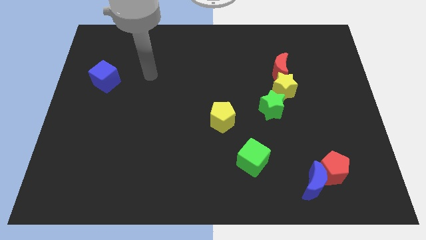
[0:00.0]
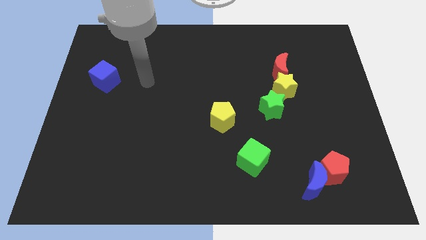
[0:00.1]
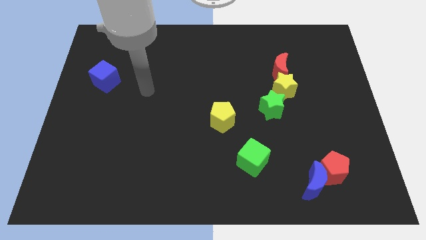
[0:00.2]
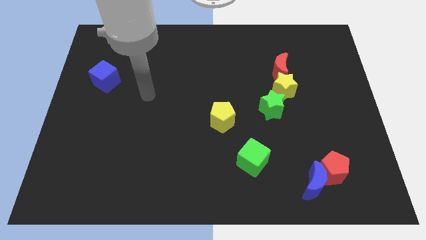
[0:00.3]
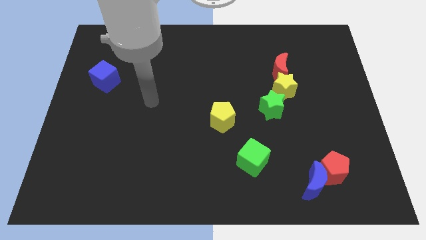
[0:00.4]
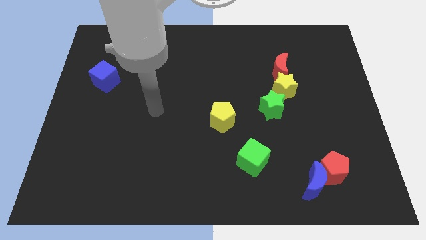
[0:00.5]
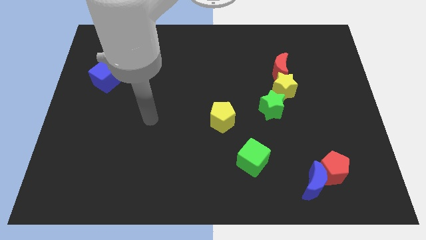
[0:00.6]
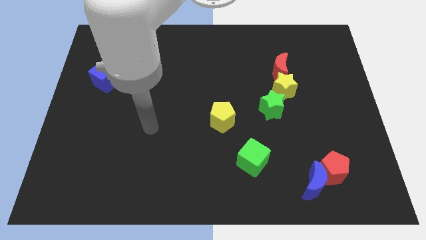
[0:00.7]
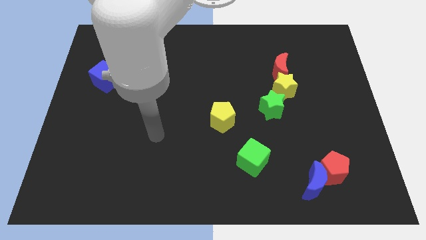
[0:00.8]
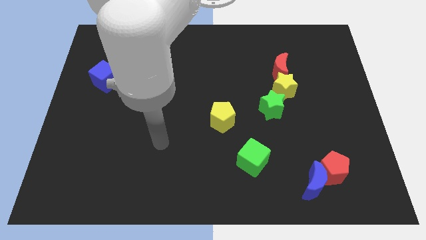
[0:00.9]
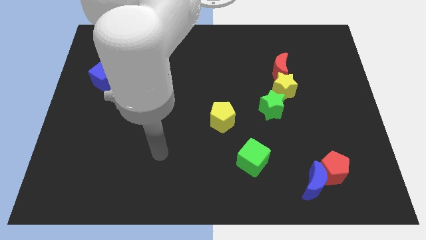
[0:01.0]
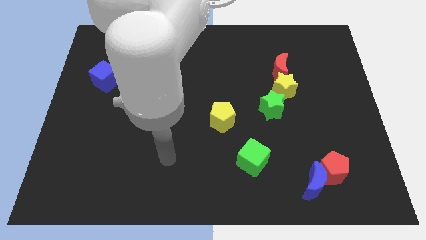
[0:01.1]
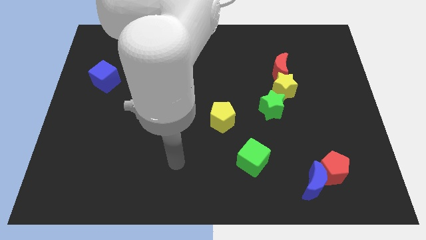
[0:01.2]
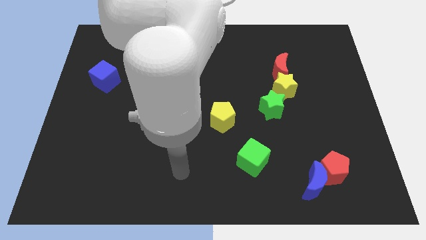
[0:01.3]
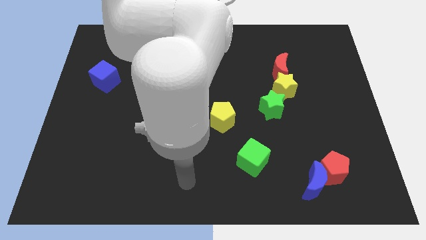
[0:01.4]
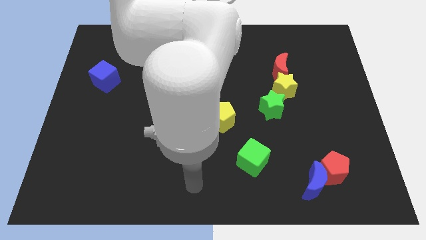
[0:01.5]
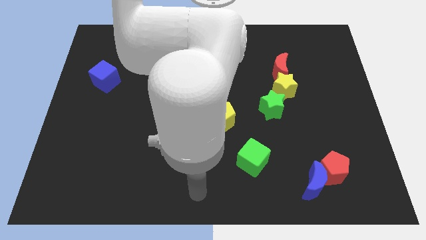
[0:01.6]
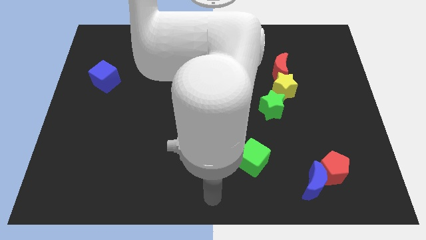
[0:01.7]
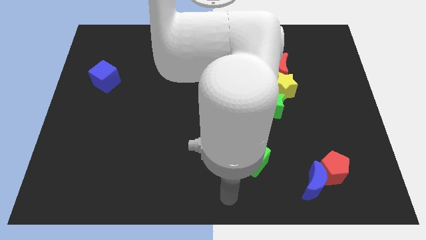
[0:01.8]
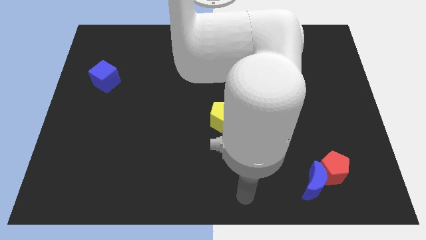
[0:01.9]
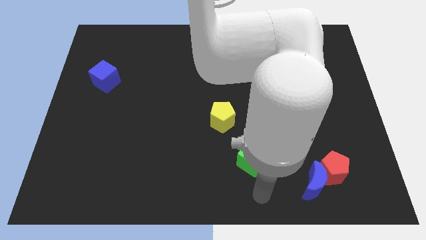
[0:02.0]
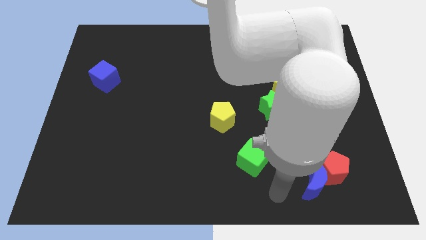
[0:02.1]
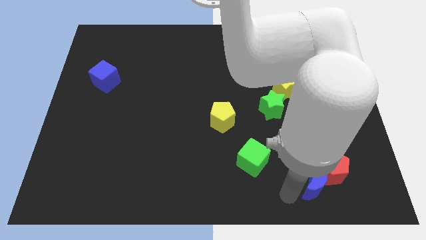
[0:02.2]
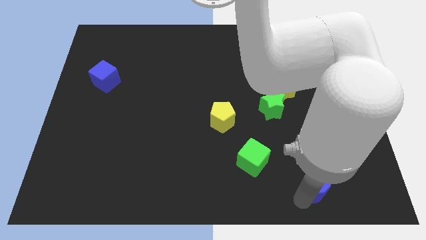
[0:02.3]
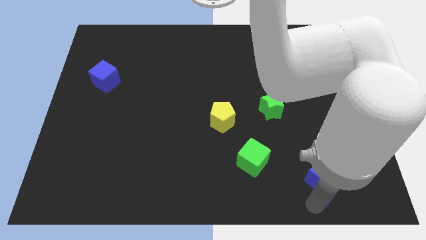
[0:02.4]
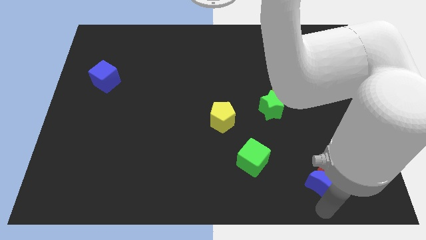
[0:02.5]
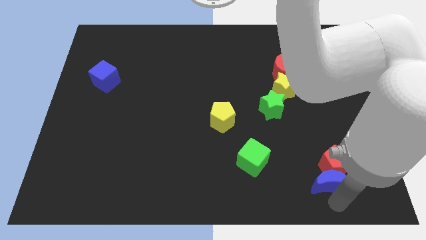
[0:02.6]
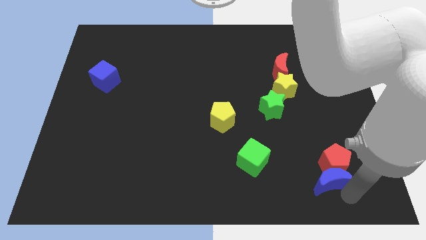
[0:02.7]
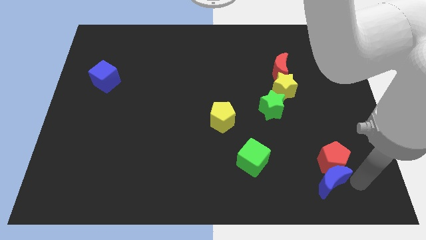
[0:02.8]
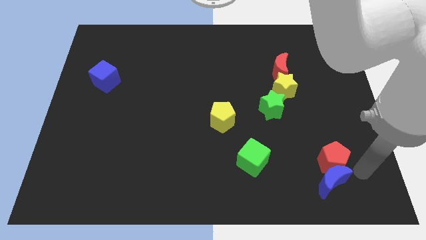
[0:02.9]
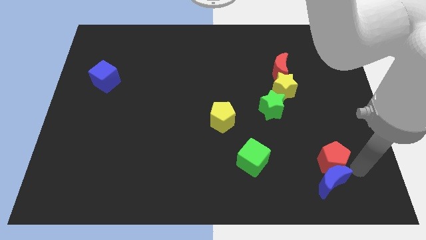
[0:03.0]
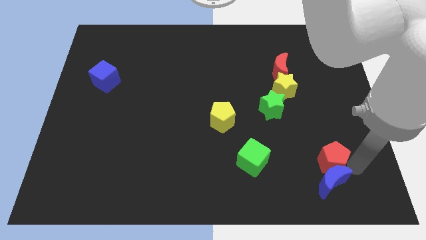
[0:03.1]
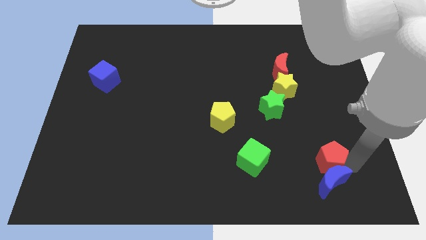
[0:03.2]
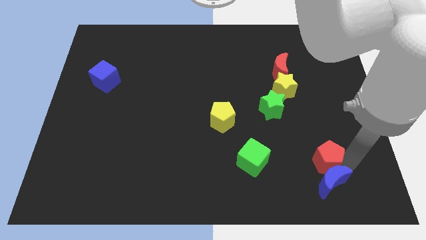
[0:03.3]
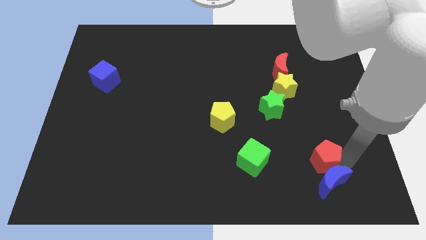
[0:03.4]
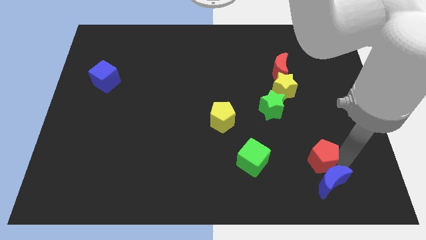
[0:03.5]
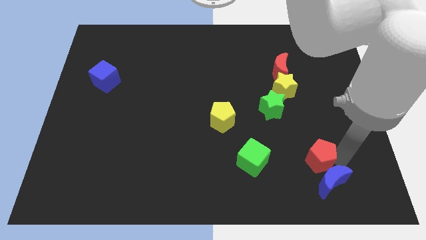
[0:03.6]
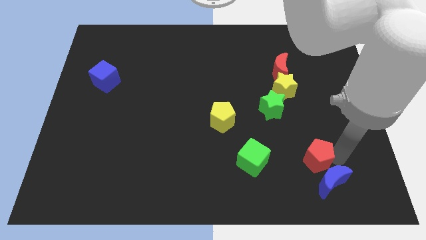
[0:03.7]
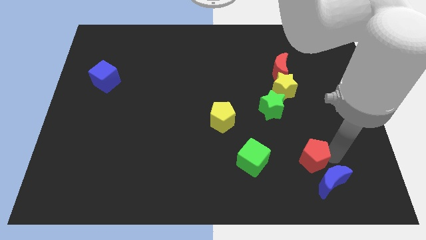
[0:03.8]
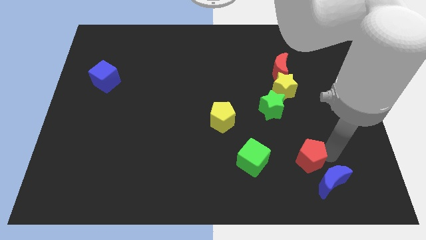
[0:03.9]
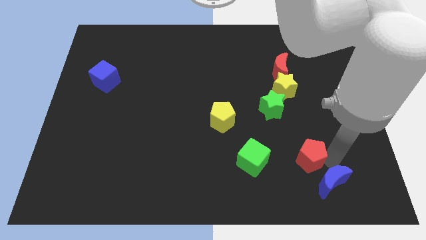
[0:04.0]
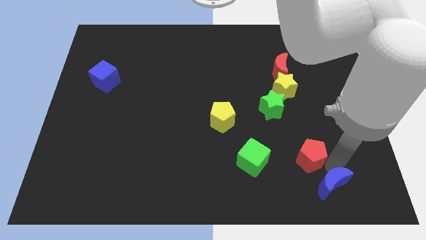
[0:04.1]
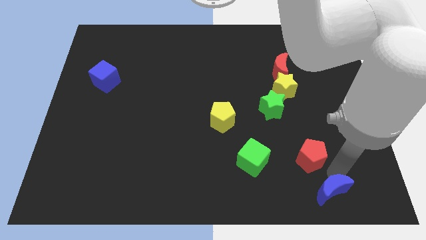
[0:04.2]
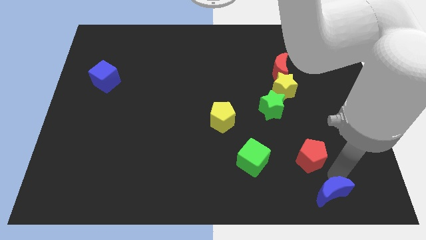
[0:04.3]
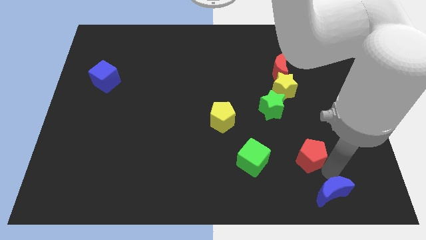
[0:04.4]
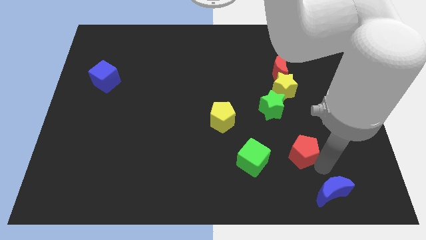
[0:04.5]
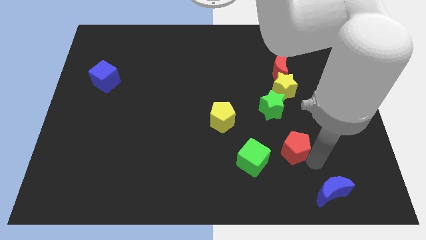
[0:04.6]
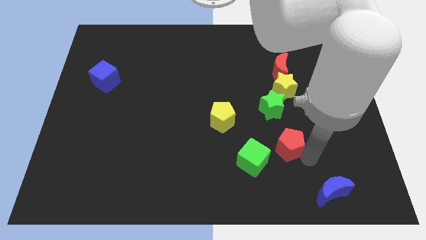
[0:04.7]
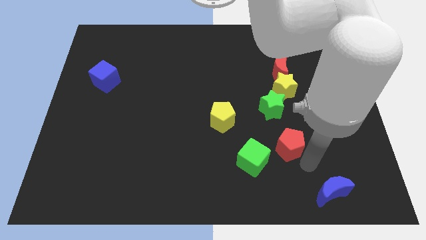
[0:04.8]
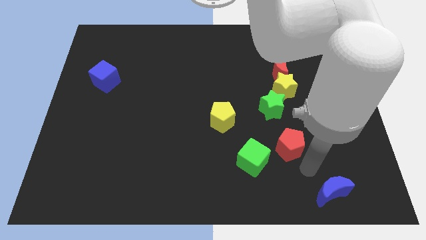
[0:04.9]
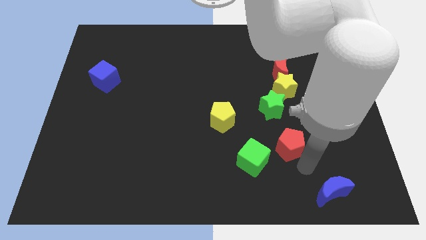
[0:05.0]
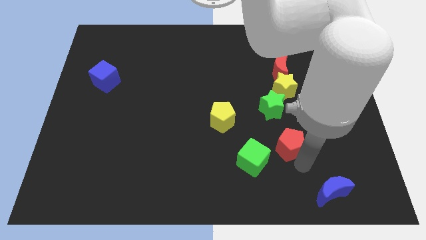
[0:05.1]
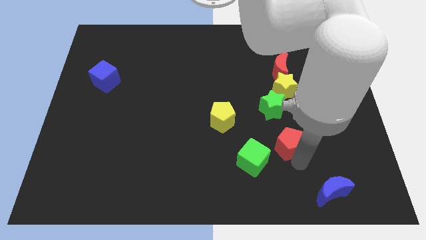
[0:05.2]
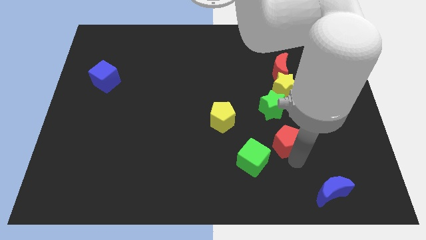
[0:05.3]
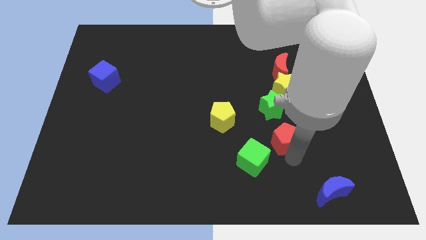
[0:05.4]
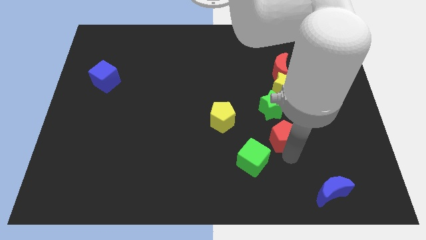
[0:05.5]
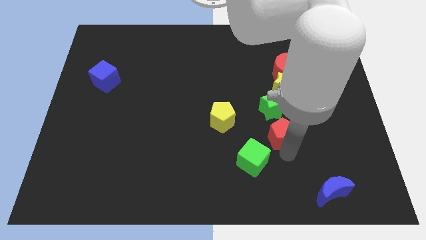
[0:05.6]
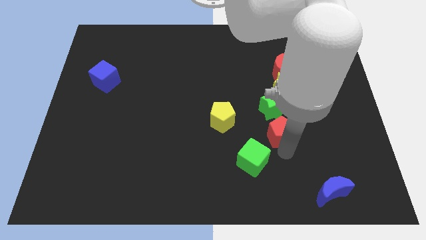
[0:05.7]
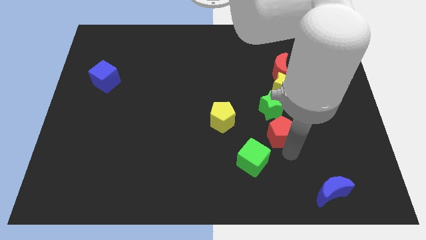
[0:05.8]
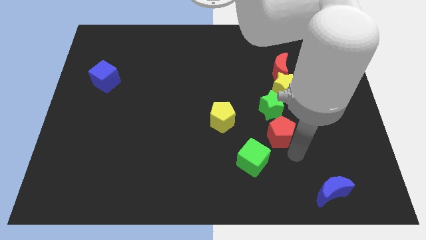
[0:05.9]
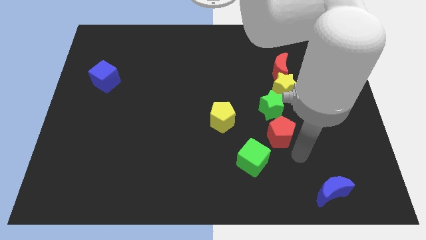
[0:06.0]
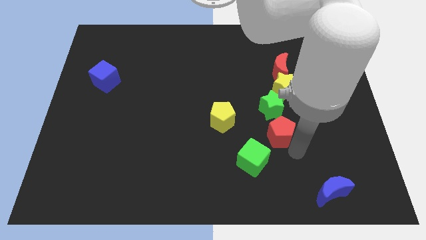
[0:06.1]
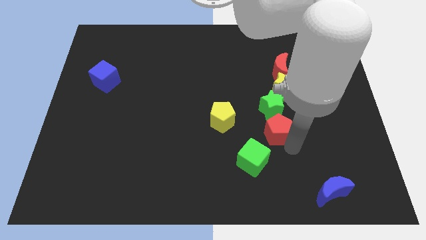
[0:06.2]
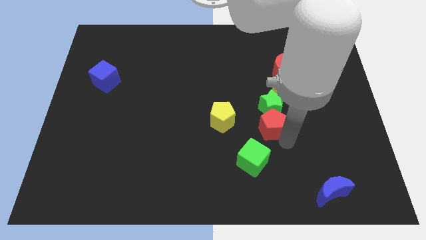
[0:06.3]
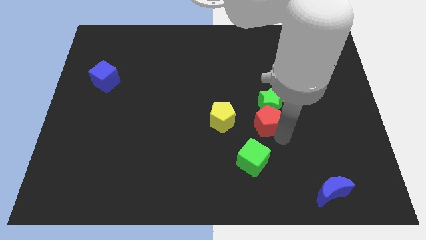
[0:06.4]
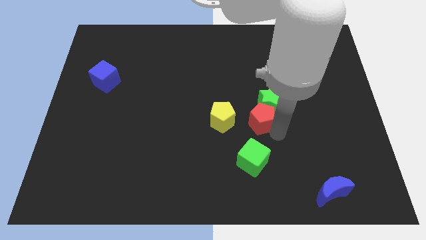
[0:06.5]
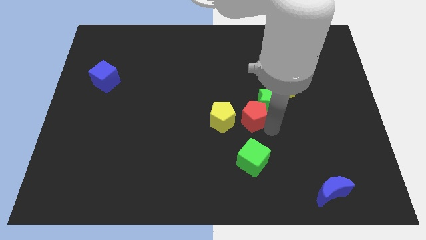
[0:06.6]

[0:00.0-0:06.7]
push the red pentagon up and to the left diagonally

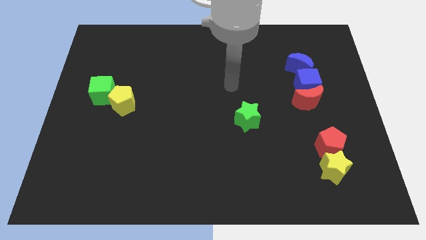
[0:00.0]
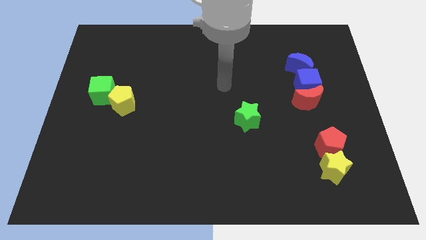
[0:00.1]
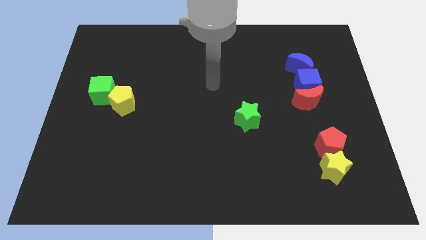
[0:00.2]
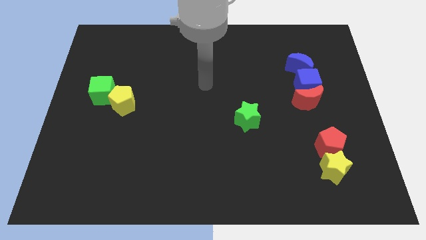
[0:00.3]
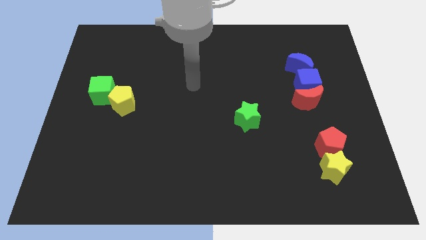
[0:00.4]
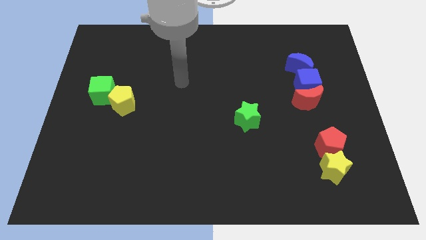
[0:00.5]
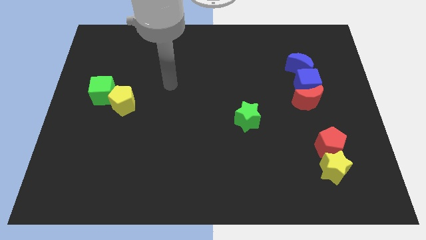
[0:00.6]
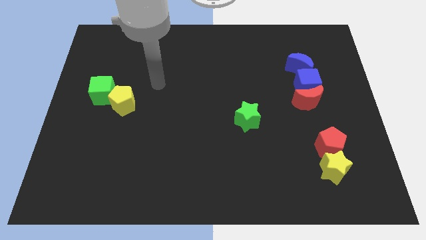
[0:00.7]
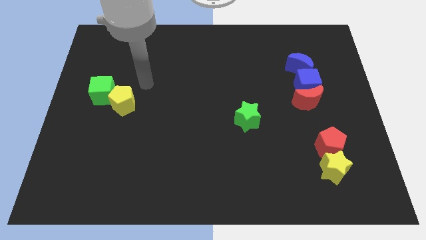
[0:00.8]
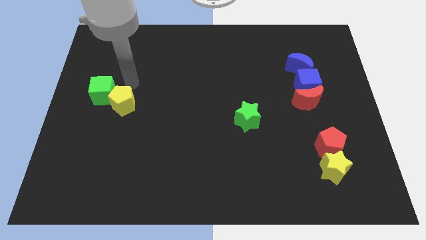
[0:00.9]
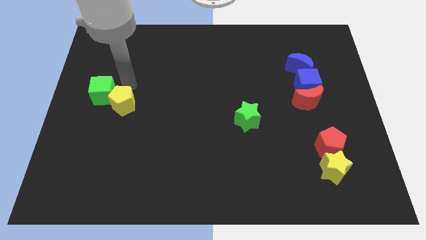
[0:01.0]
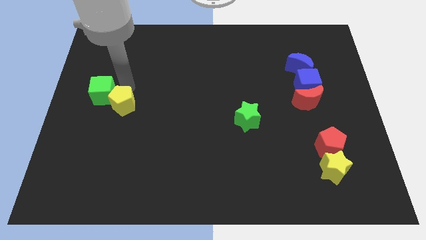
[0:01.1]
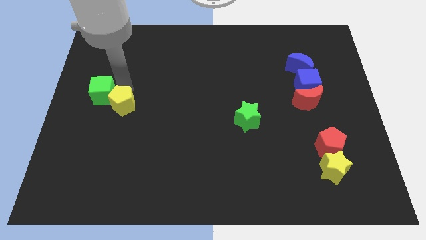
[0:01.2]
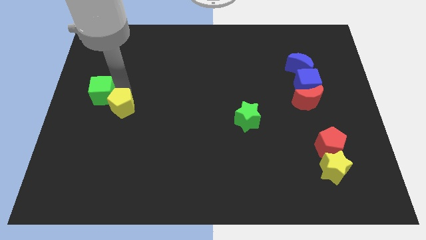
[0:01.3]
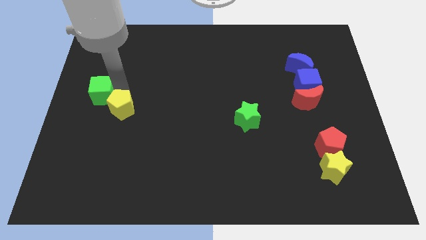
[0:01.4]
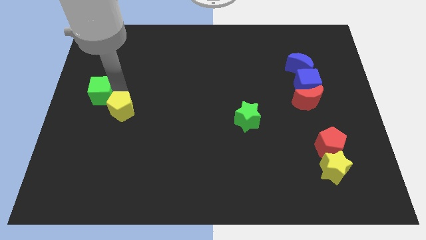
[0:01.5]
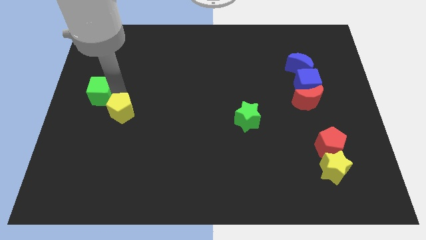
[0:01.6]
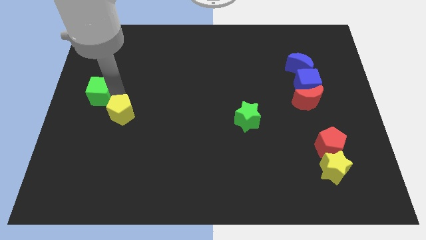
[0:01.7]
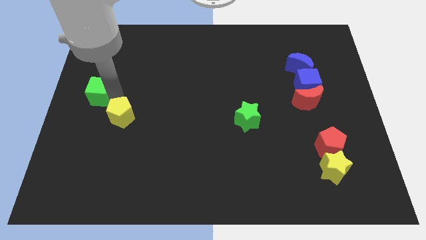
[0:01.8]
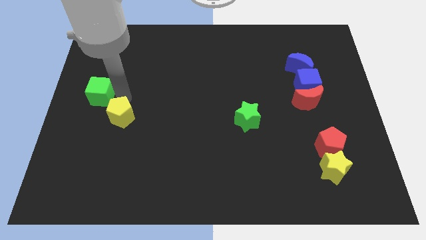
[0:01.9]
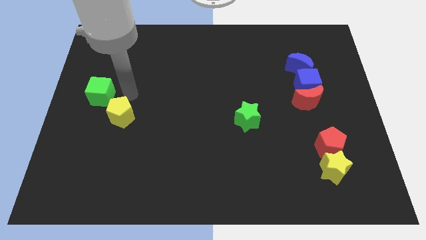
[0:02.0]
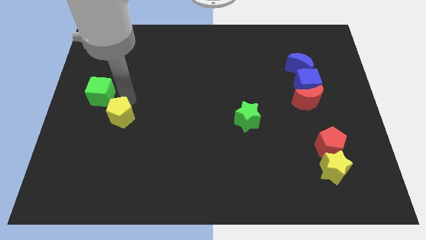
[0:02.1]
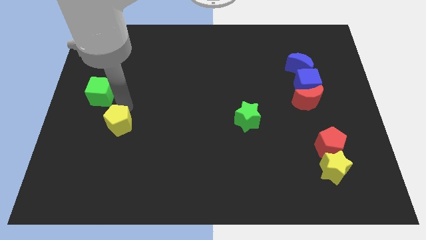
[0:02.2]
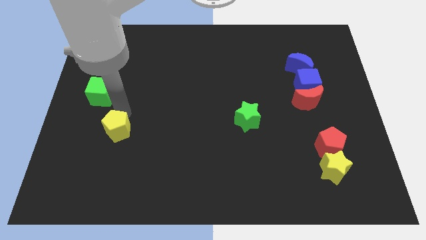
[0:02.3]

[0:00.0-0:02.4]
slightly push the yellow pentagon downwards
